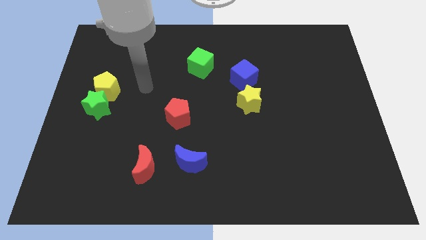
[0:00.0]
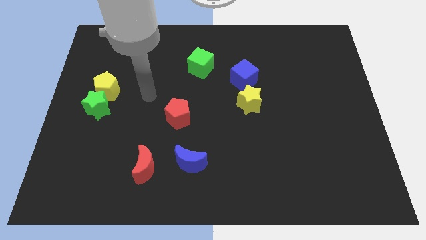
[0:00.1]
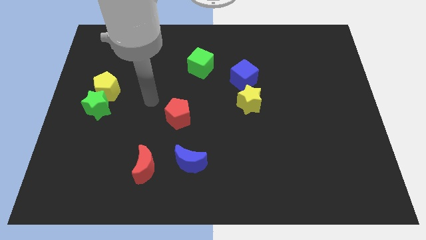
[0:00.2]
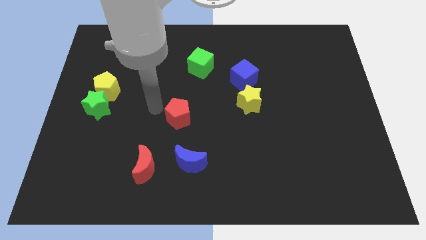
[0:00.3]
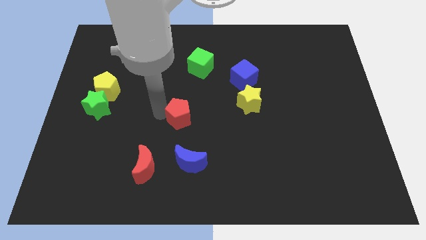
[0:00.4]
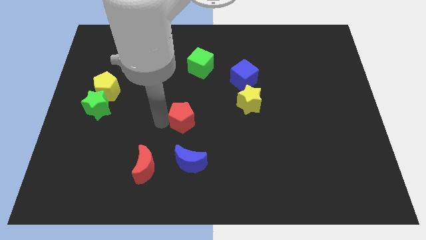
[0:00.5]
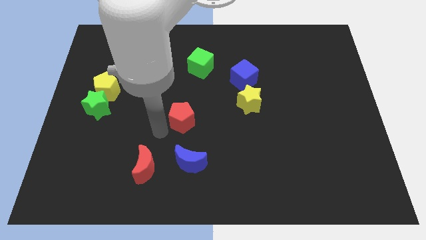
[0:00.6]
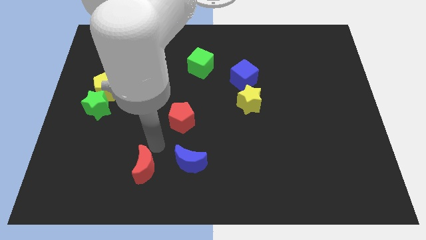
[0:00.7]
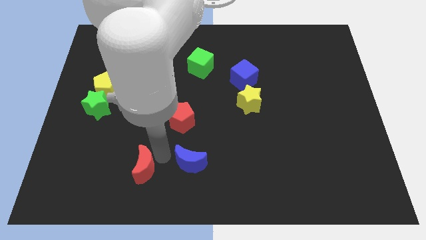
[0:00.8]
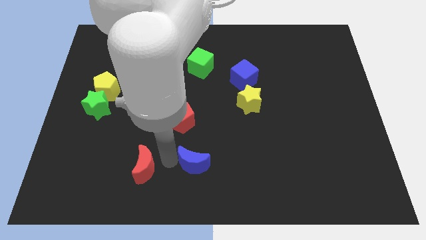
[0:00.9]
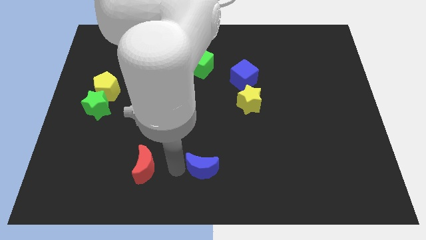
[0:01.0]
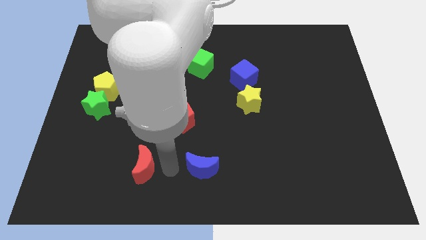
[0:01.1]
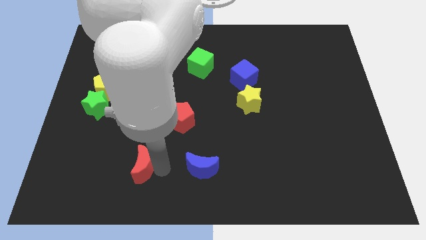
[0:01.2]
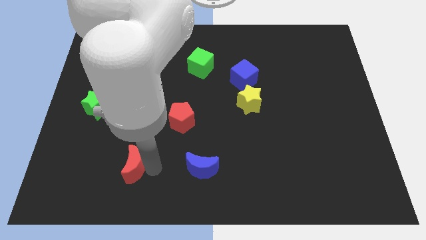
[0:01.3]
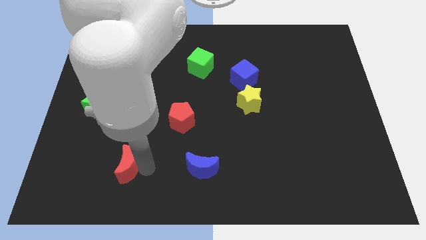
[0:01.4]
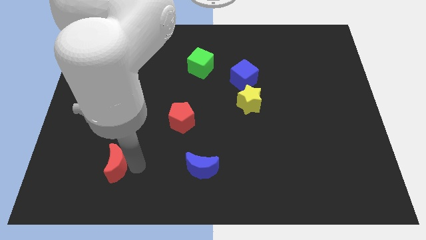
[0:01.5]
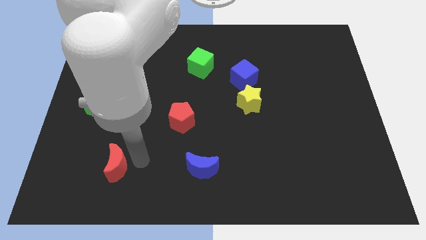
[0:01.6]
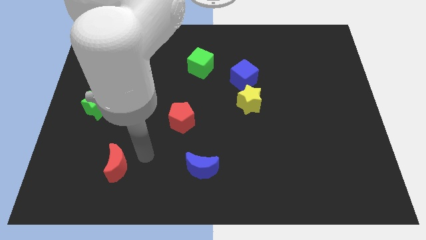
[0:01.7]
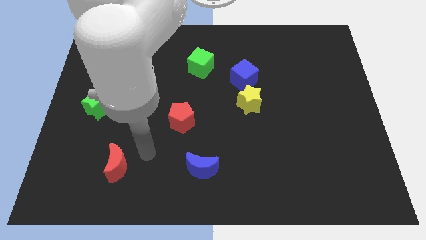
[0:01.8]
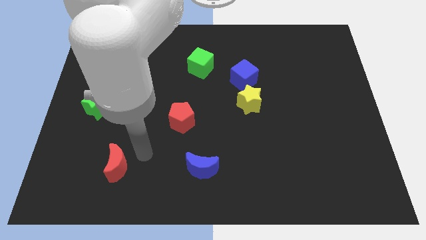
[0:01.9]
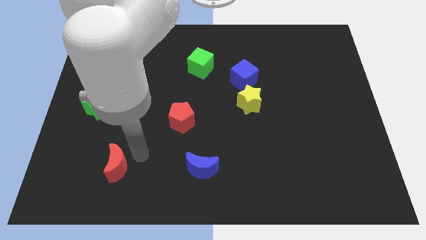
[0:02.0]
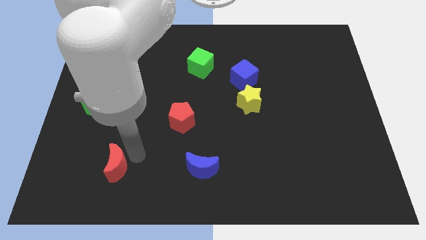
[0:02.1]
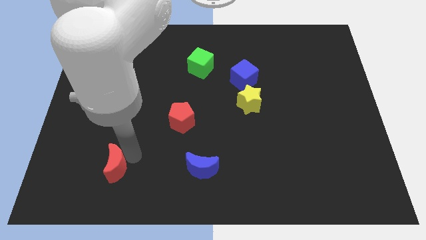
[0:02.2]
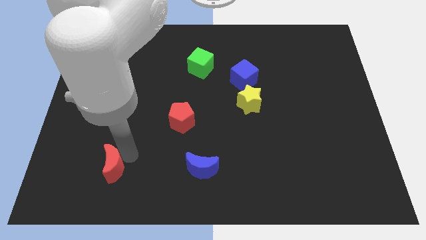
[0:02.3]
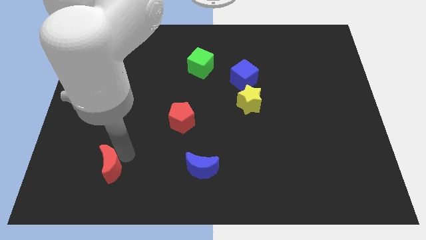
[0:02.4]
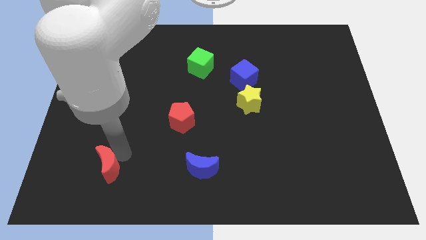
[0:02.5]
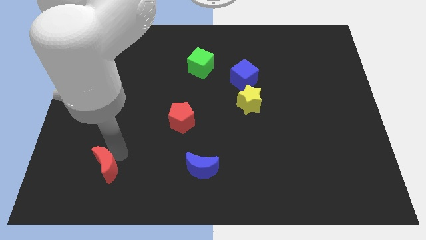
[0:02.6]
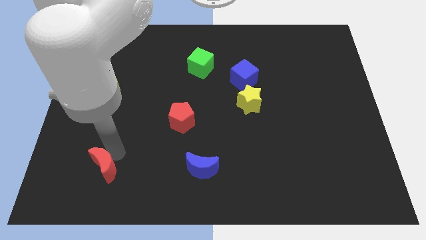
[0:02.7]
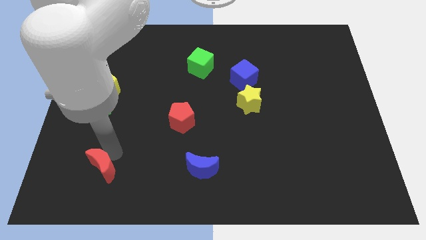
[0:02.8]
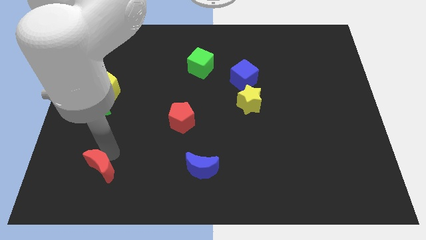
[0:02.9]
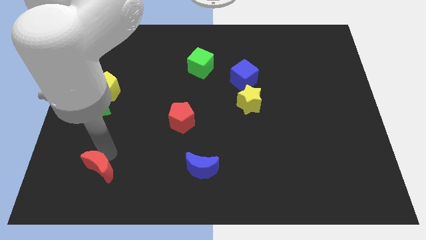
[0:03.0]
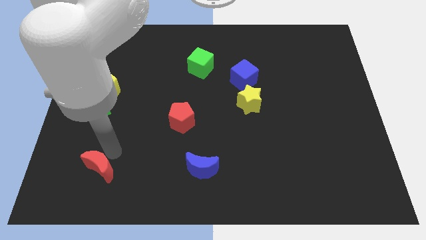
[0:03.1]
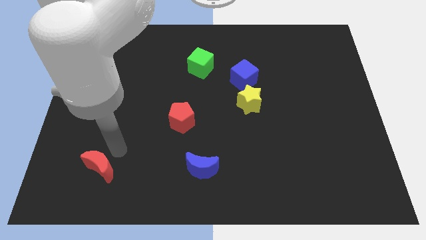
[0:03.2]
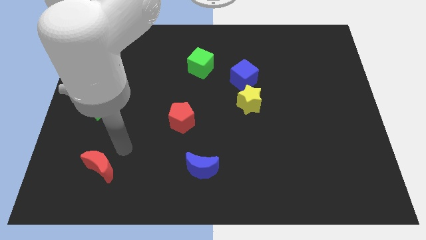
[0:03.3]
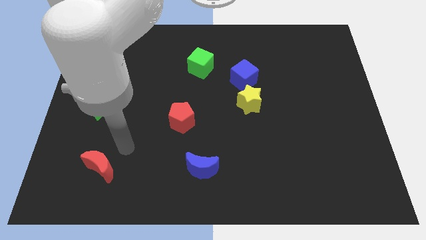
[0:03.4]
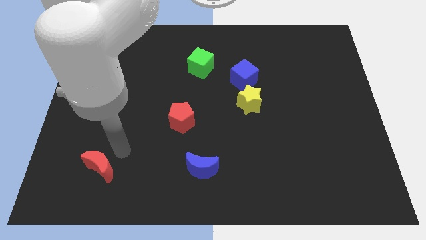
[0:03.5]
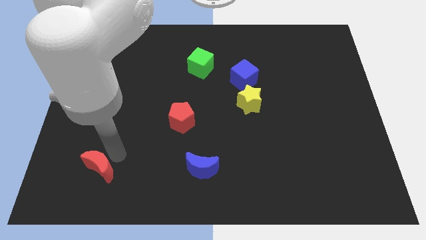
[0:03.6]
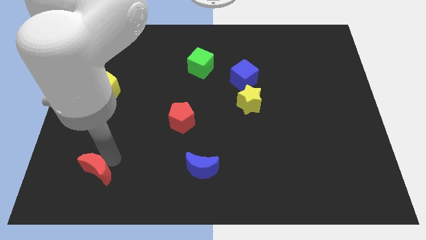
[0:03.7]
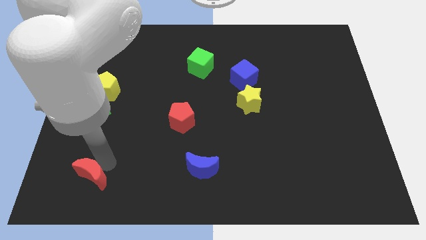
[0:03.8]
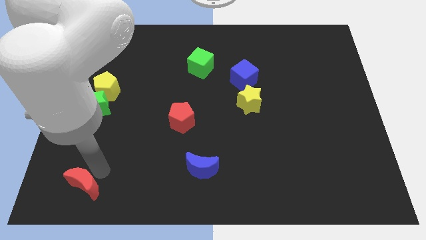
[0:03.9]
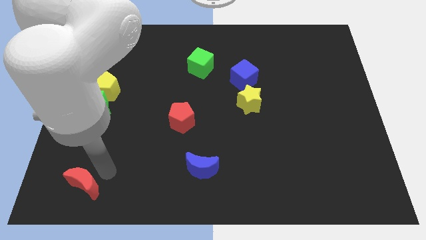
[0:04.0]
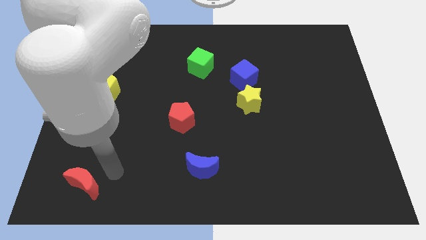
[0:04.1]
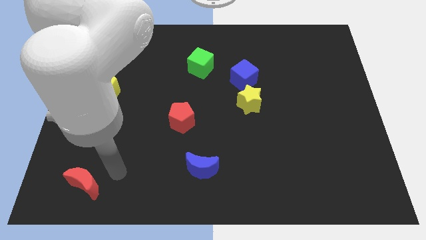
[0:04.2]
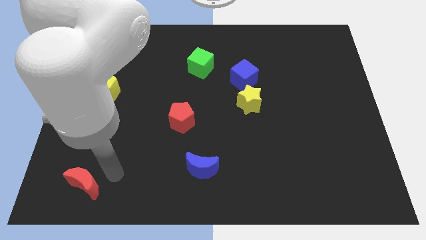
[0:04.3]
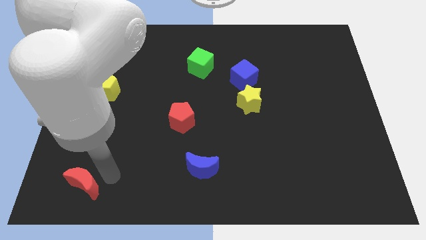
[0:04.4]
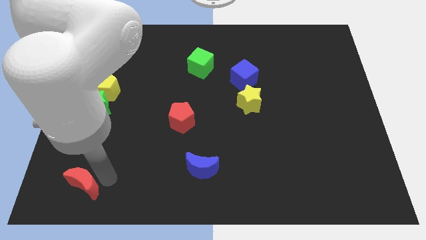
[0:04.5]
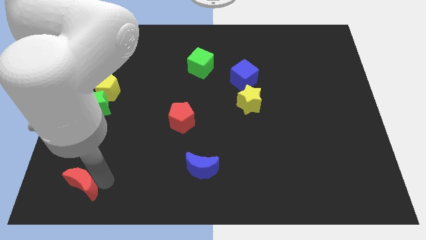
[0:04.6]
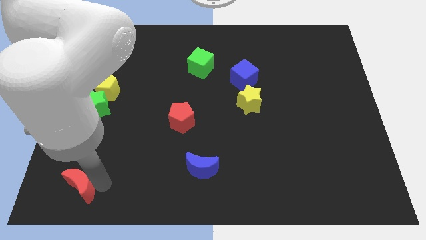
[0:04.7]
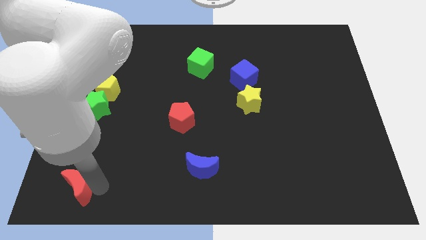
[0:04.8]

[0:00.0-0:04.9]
move the red moon to the bottom left of the board
